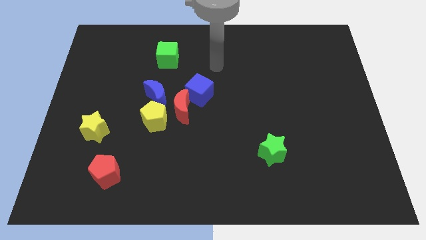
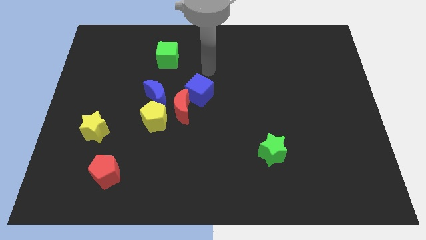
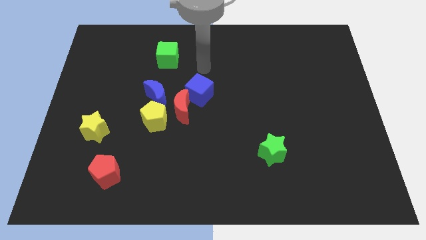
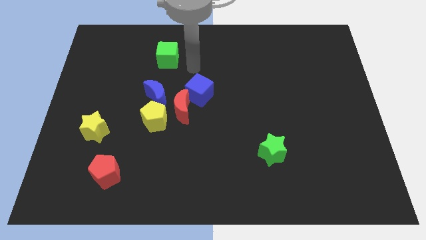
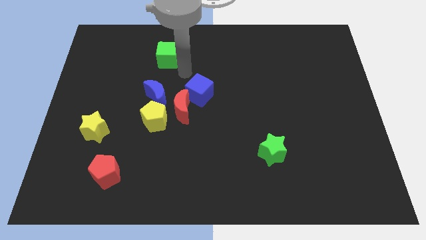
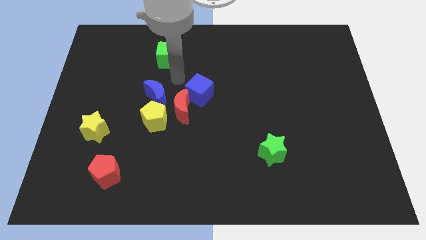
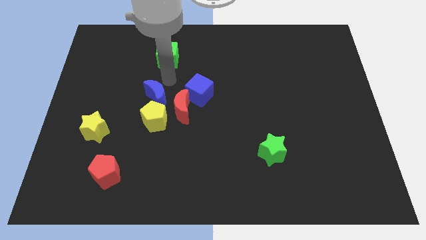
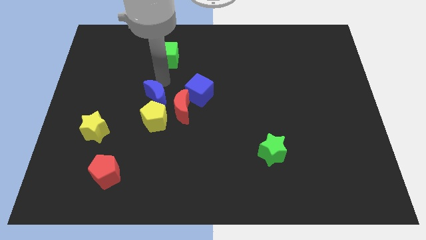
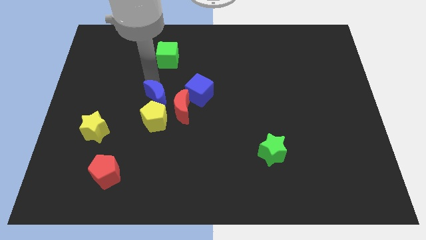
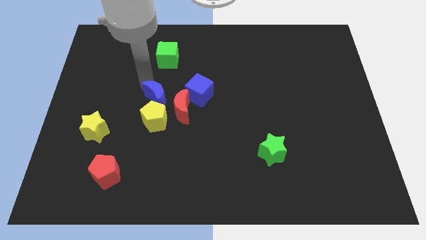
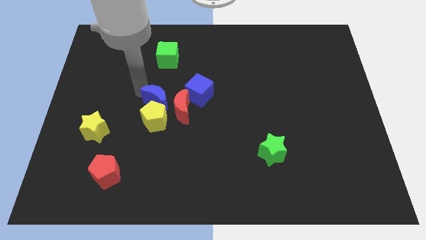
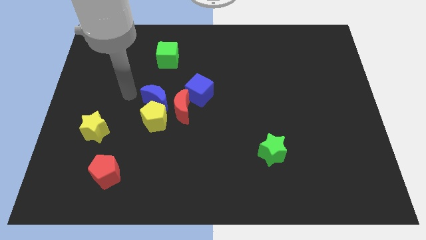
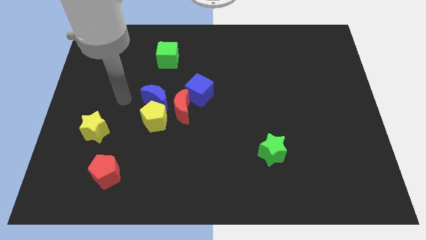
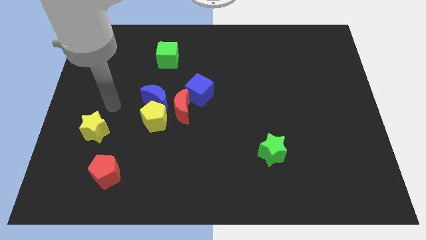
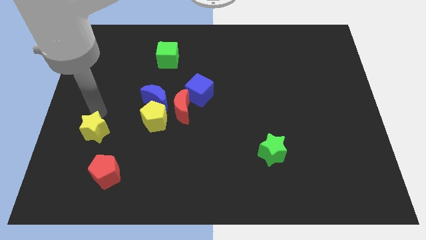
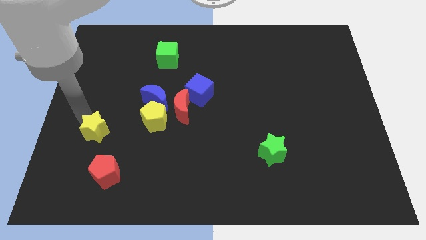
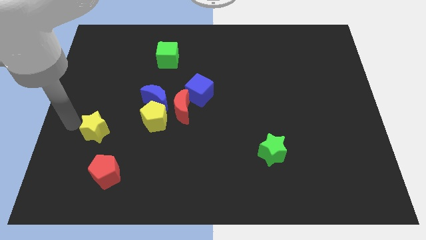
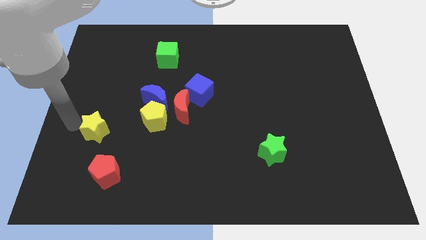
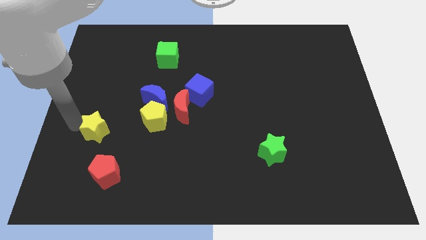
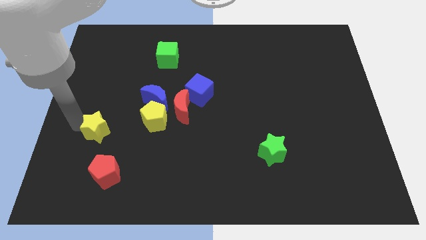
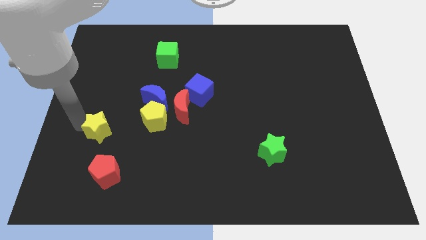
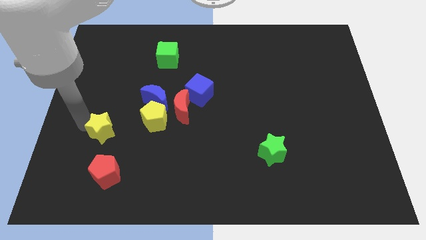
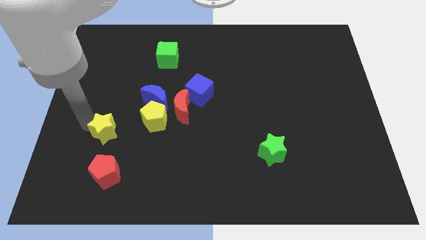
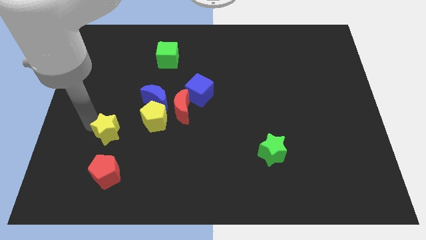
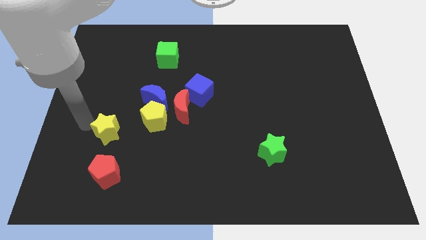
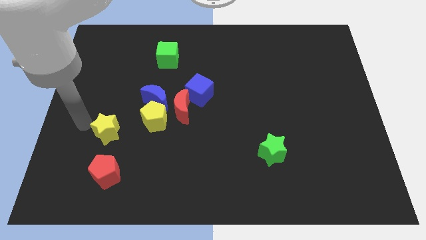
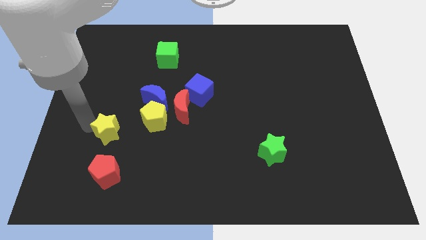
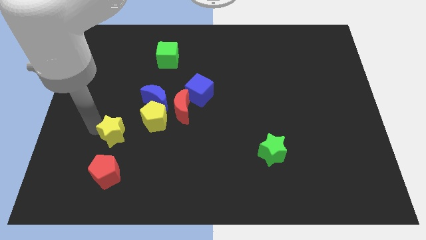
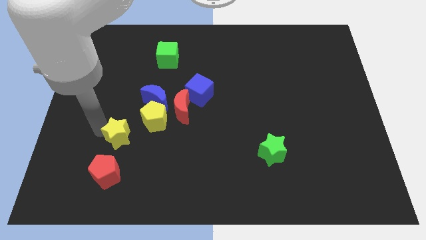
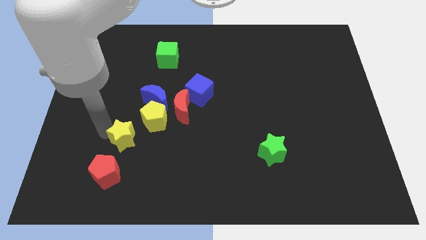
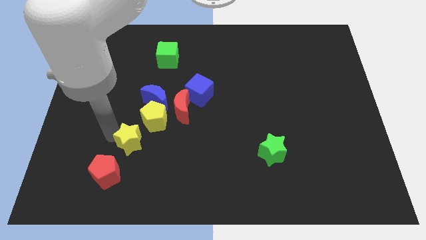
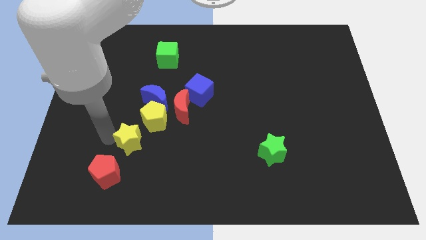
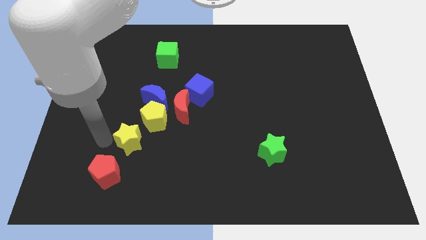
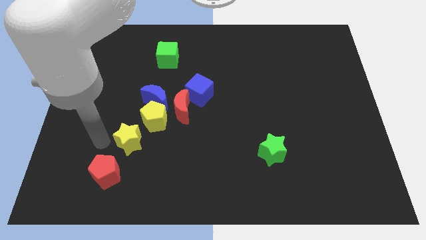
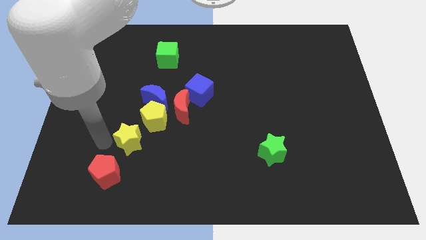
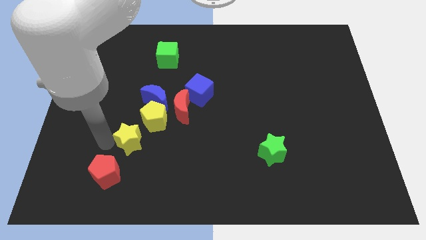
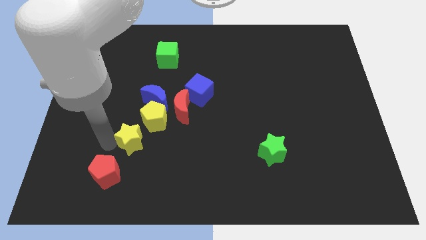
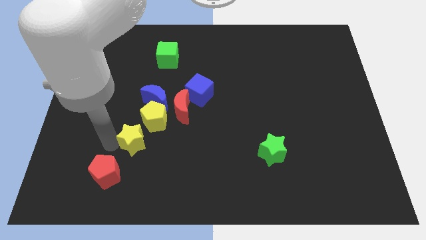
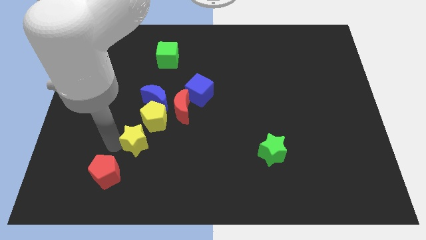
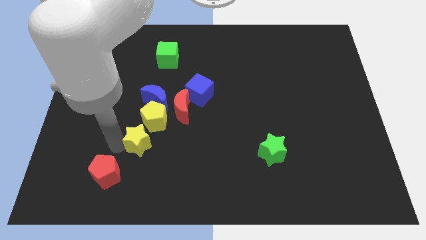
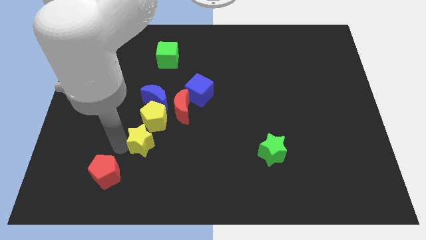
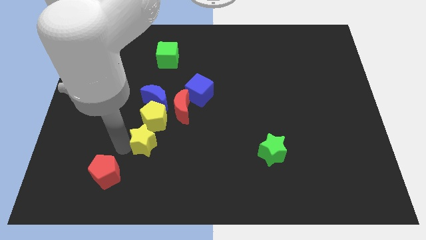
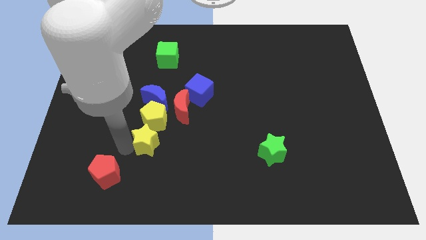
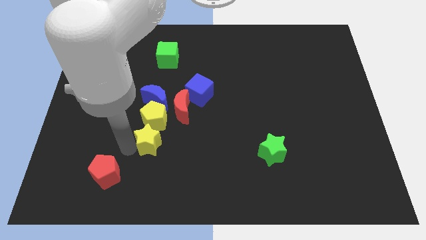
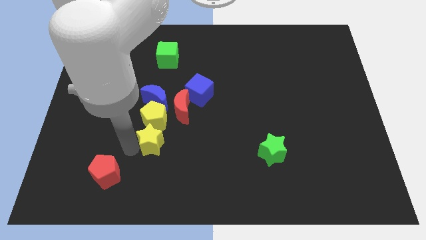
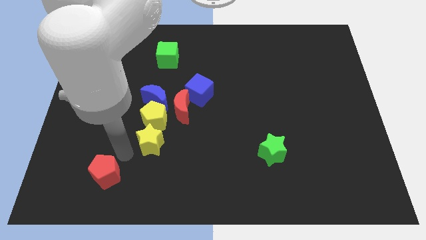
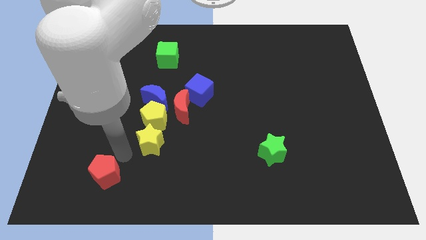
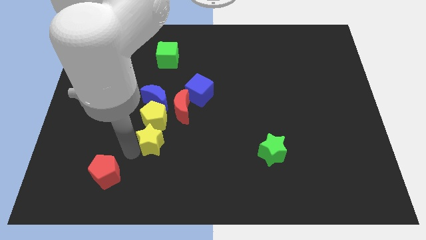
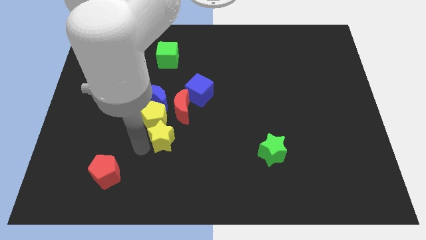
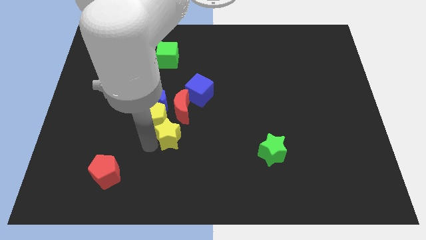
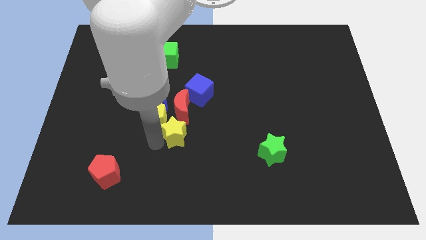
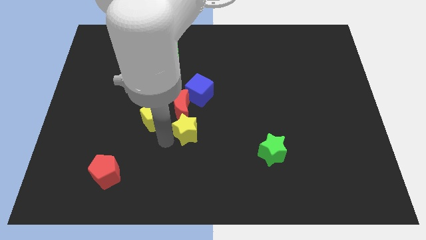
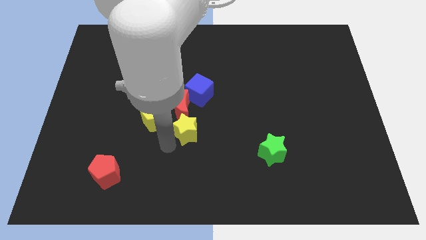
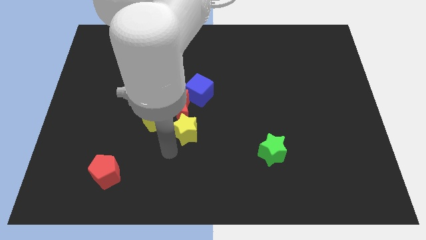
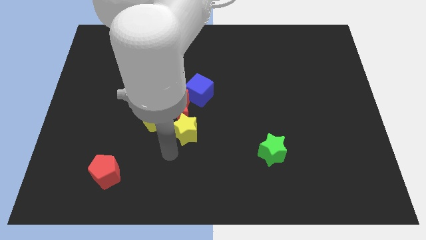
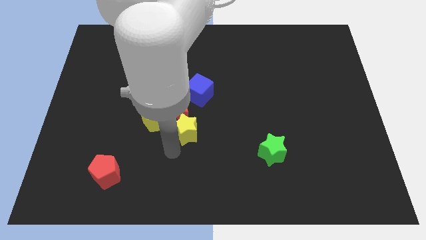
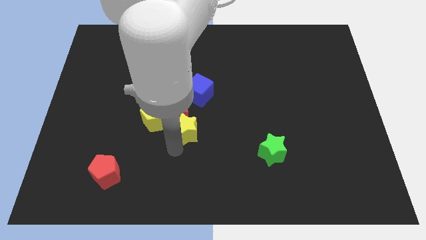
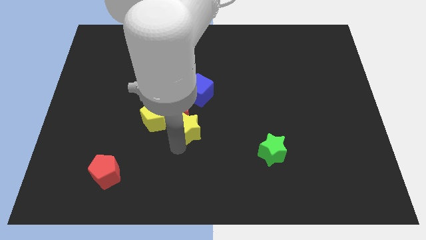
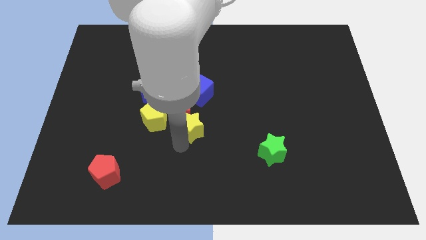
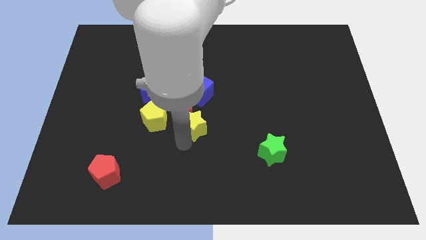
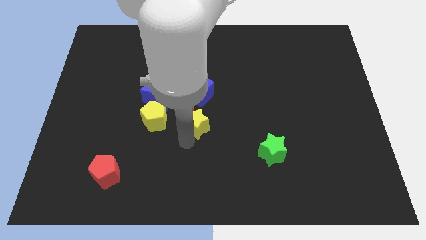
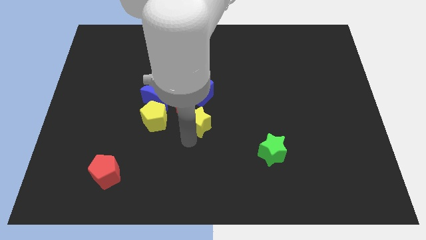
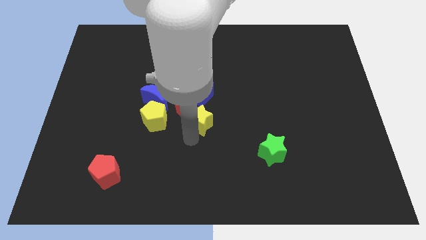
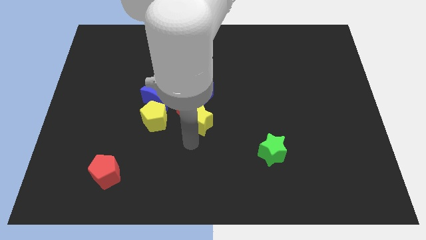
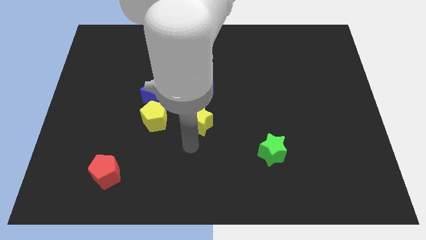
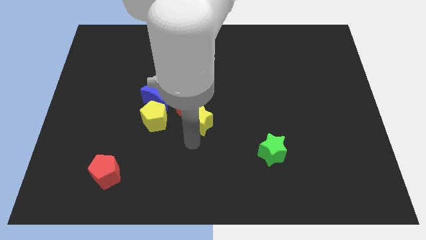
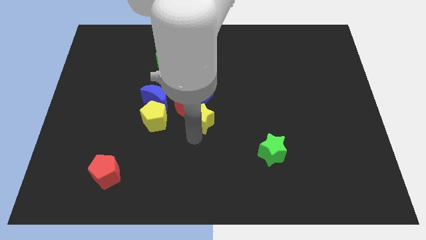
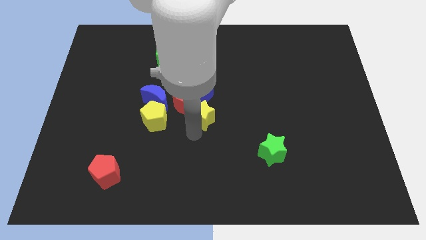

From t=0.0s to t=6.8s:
slide the yellow star to the right of the blue moon

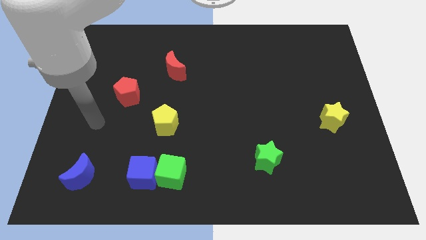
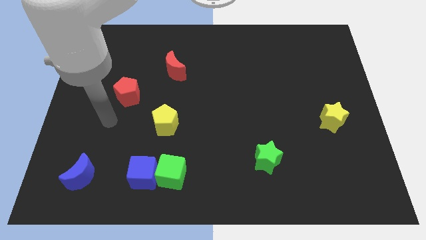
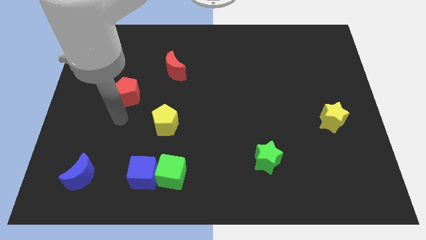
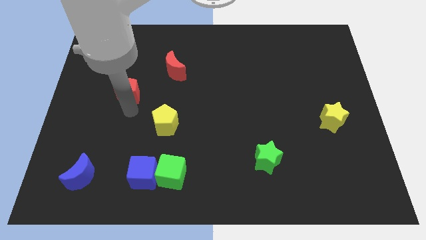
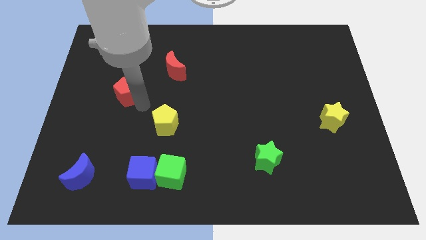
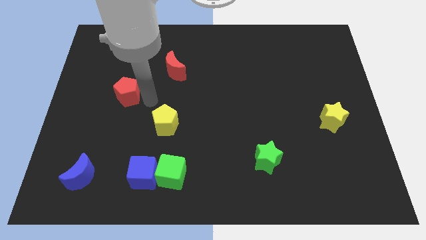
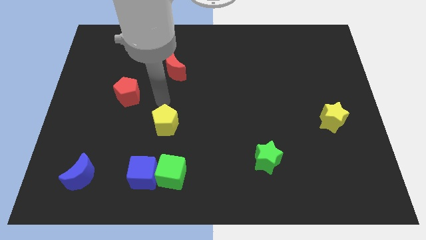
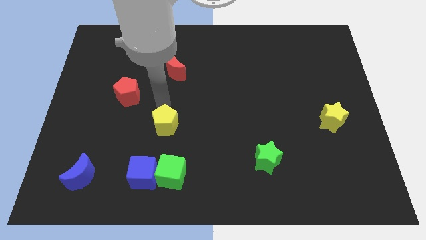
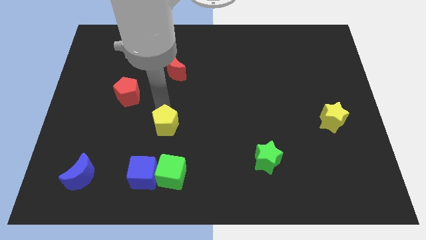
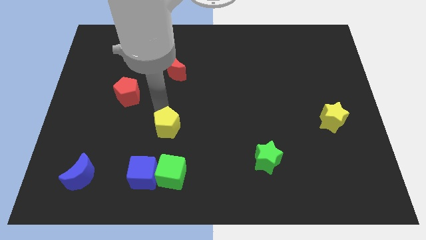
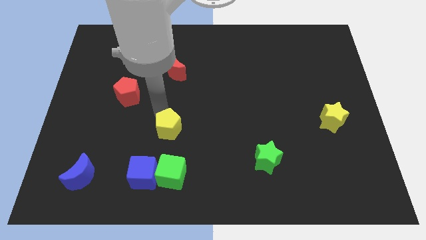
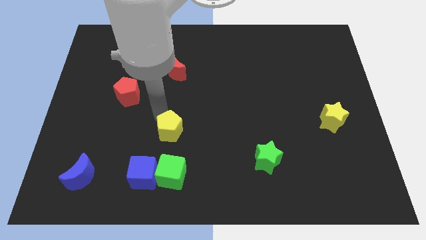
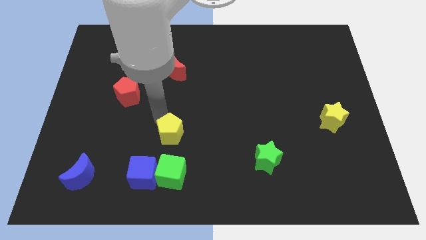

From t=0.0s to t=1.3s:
slide the yellow pentagon to the top right of the blue cube
